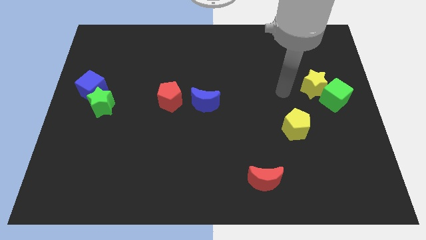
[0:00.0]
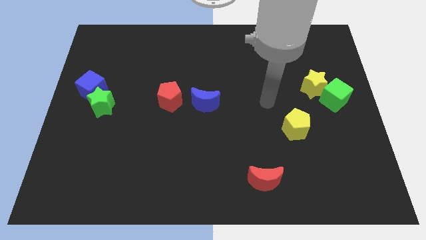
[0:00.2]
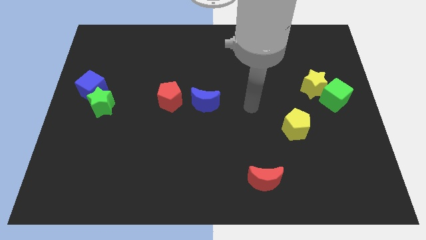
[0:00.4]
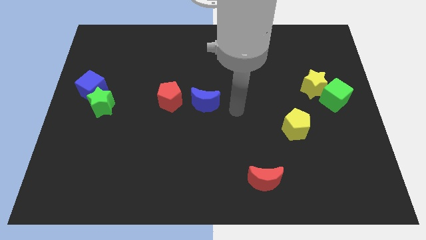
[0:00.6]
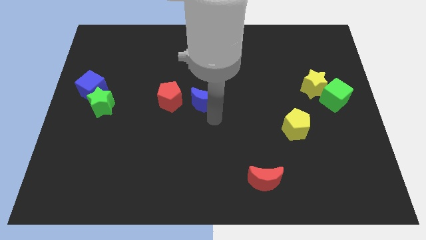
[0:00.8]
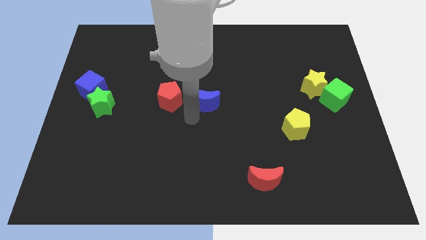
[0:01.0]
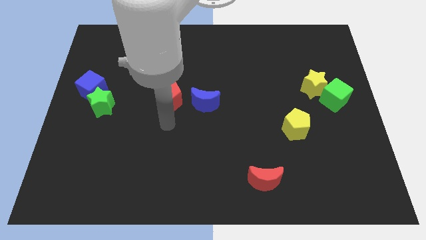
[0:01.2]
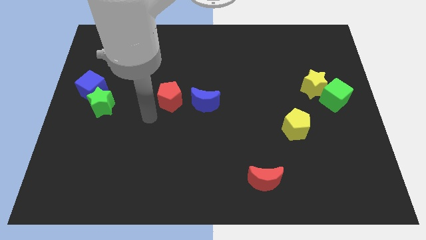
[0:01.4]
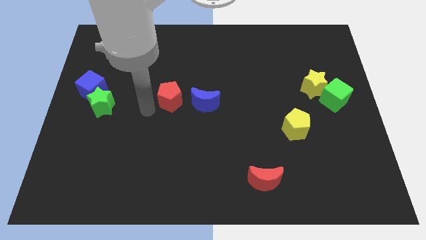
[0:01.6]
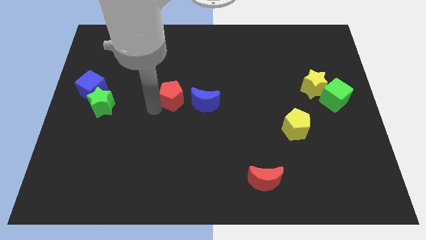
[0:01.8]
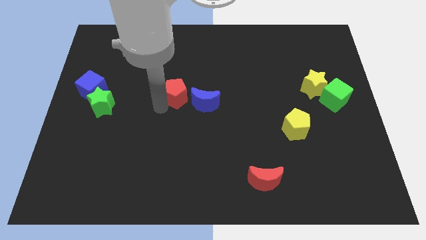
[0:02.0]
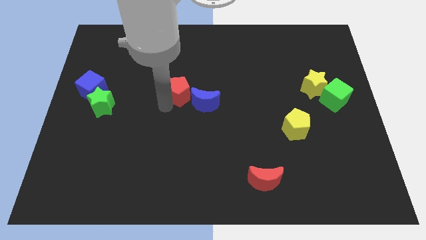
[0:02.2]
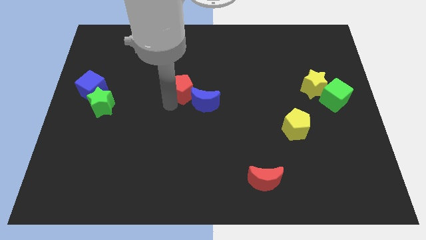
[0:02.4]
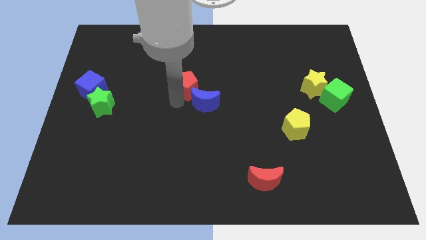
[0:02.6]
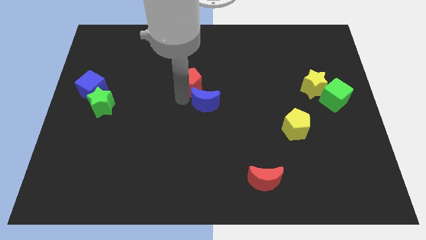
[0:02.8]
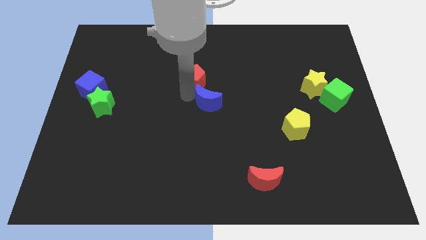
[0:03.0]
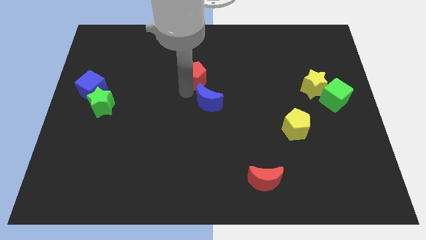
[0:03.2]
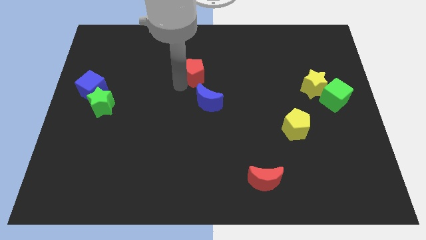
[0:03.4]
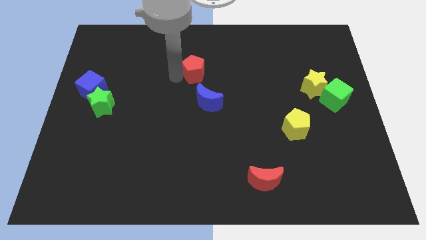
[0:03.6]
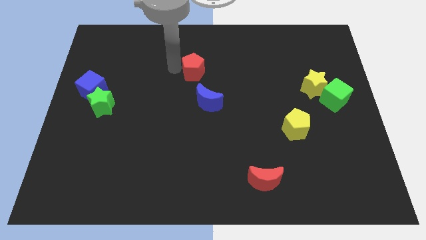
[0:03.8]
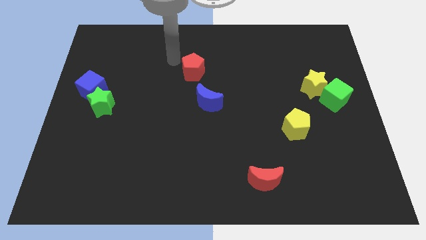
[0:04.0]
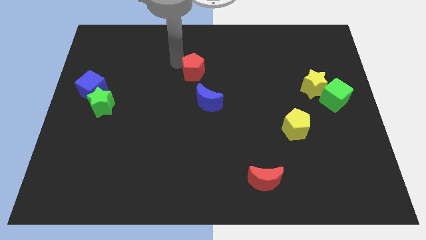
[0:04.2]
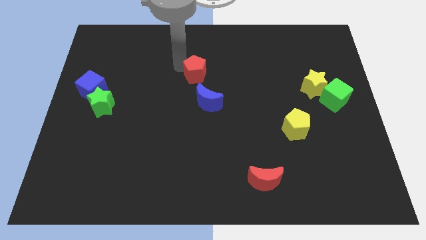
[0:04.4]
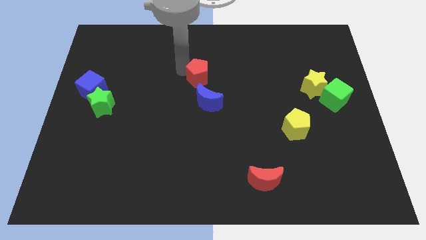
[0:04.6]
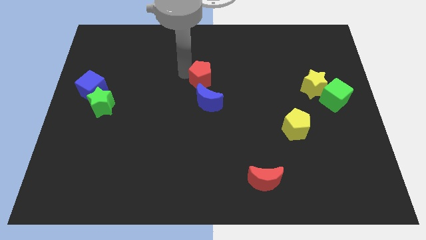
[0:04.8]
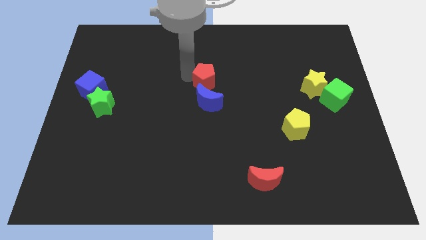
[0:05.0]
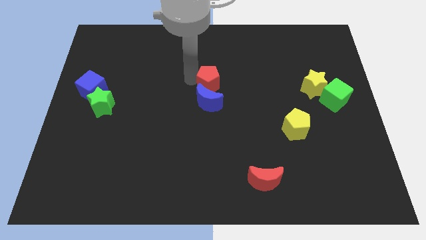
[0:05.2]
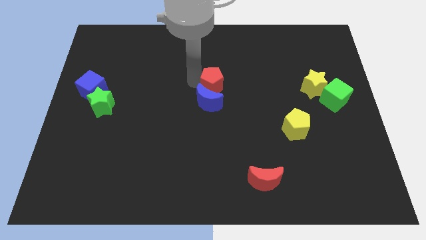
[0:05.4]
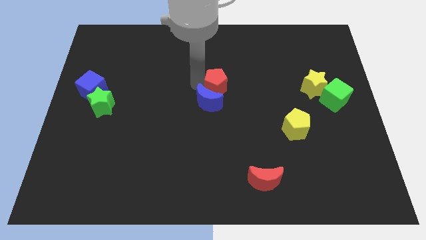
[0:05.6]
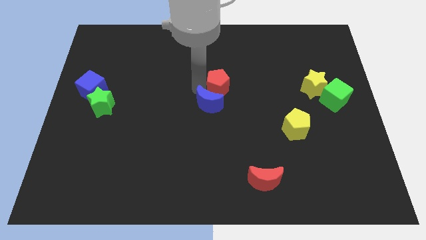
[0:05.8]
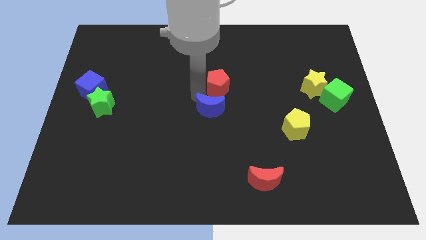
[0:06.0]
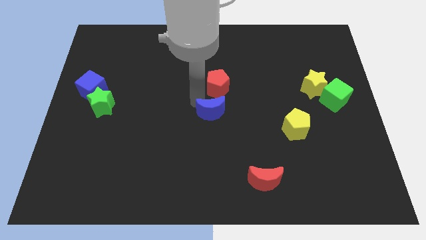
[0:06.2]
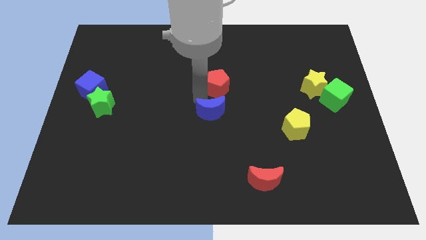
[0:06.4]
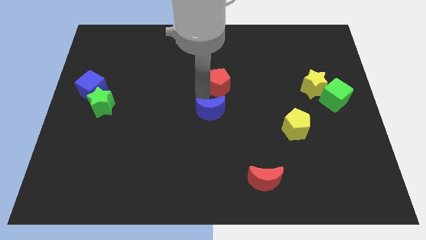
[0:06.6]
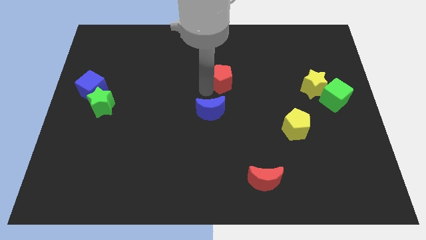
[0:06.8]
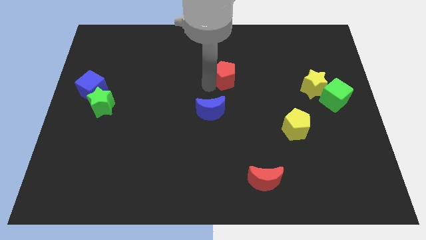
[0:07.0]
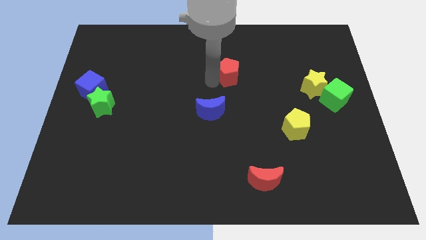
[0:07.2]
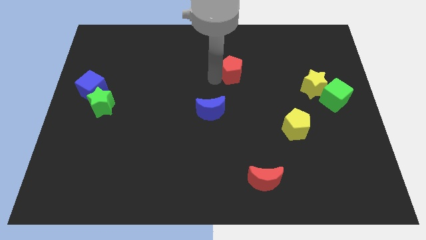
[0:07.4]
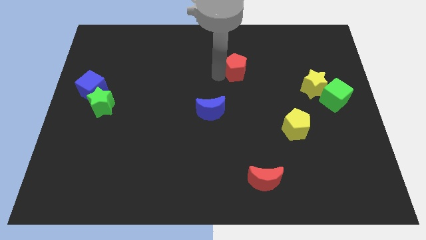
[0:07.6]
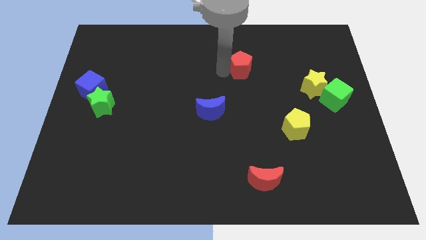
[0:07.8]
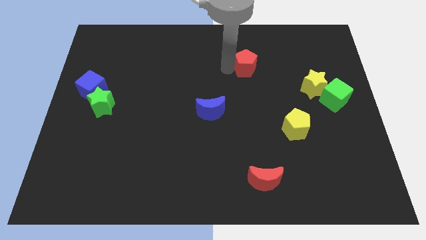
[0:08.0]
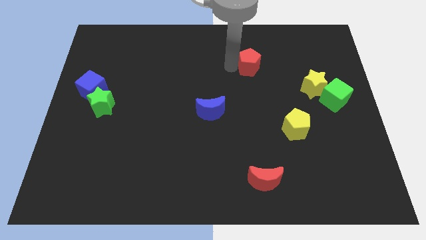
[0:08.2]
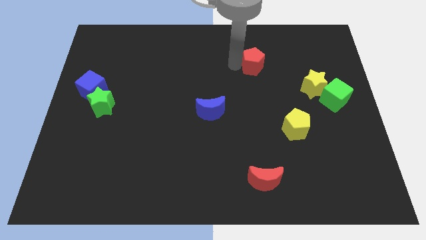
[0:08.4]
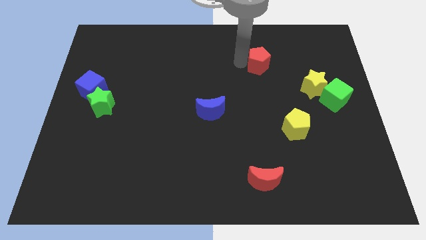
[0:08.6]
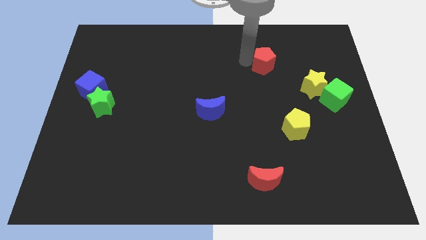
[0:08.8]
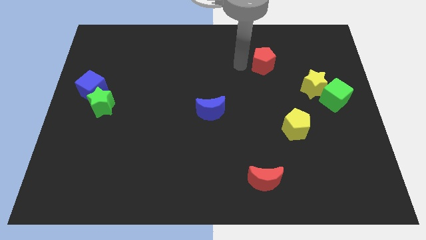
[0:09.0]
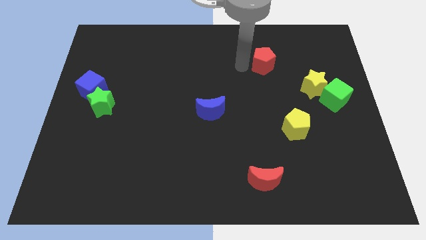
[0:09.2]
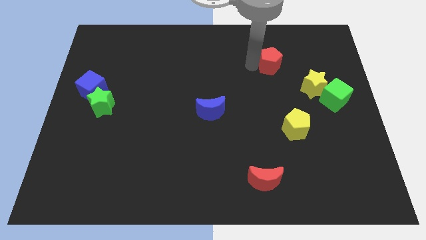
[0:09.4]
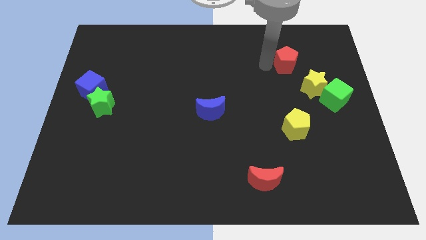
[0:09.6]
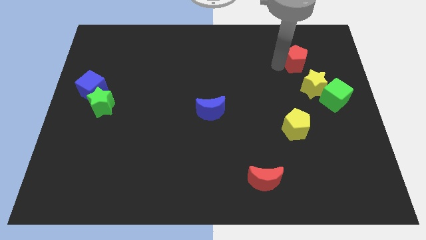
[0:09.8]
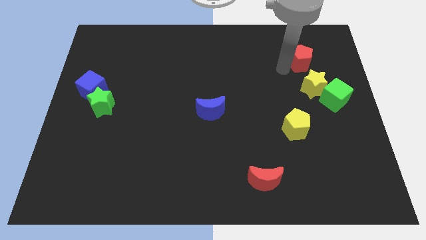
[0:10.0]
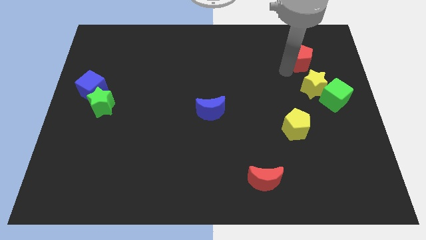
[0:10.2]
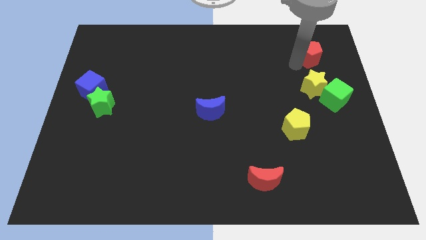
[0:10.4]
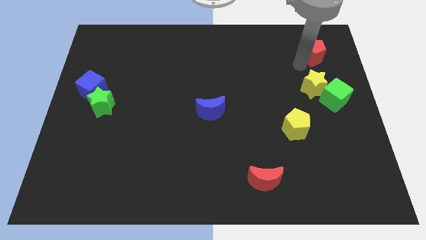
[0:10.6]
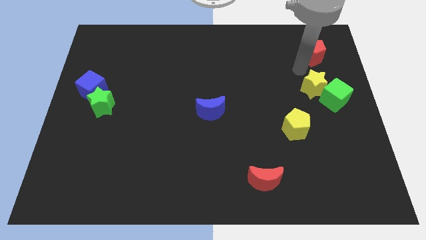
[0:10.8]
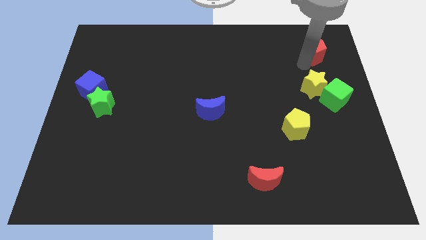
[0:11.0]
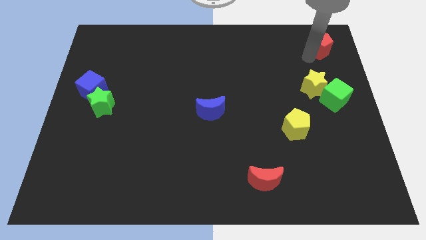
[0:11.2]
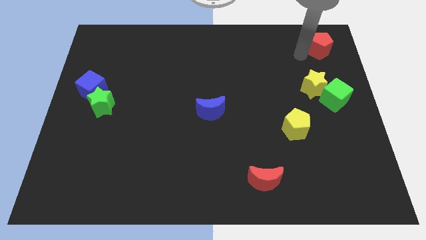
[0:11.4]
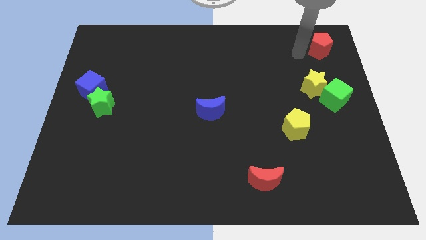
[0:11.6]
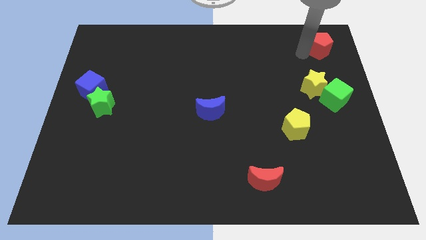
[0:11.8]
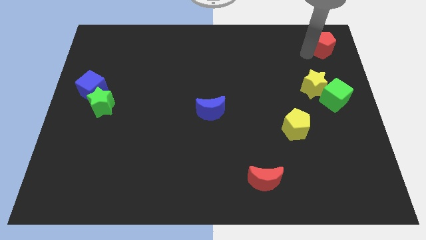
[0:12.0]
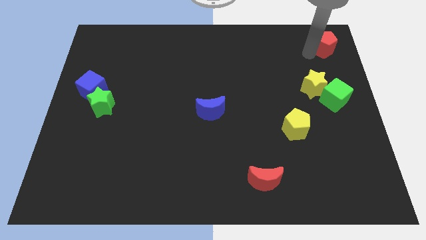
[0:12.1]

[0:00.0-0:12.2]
move the red pentagon to the top right

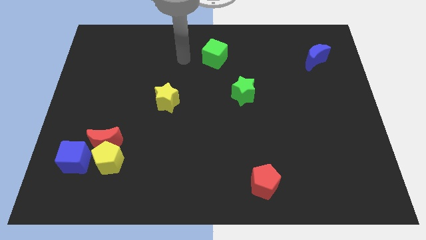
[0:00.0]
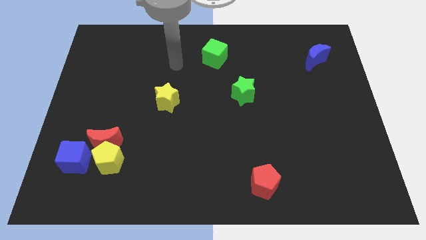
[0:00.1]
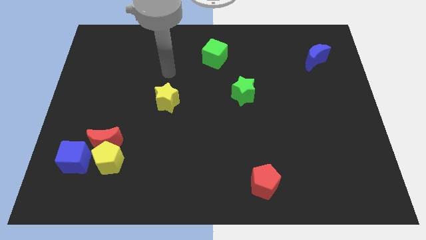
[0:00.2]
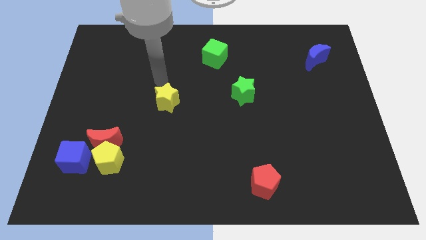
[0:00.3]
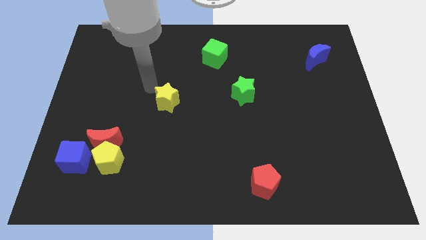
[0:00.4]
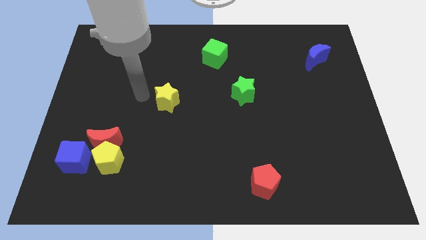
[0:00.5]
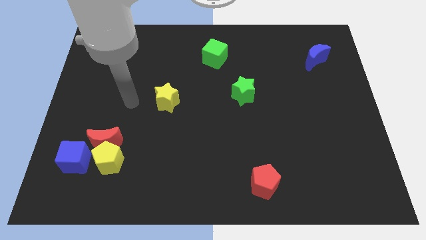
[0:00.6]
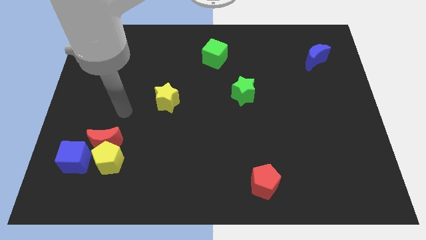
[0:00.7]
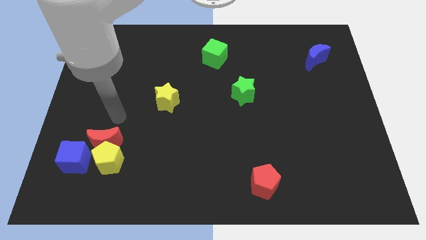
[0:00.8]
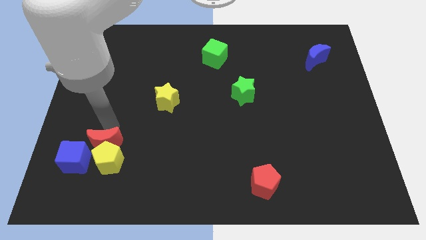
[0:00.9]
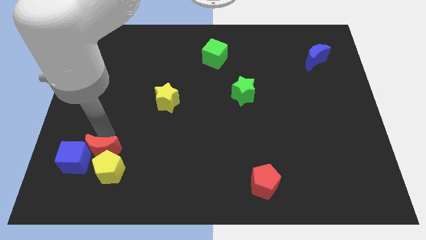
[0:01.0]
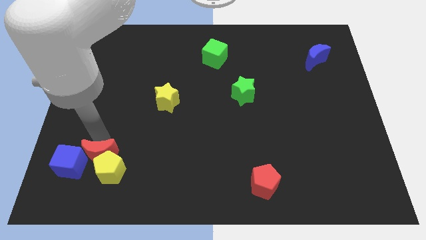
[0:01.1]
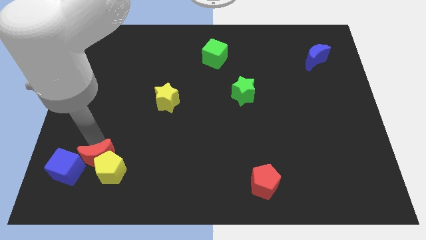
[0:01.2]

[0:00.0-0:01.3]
move the blue cube to the bottom left of the board

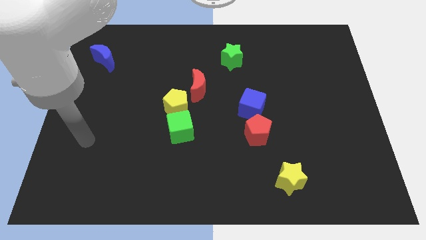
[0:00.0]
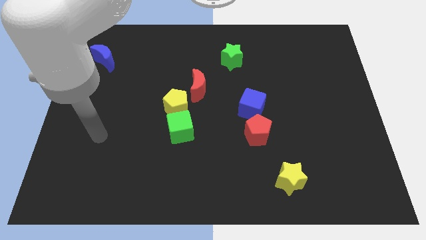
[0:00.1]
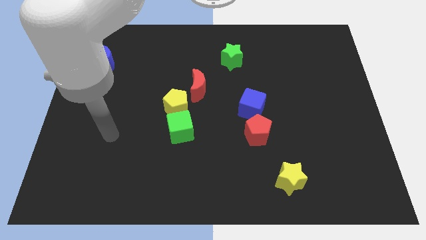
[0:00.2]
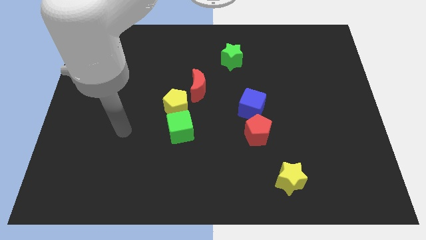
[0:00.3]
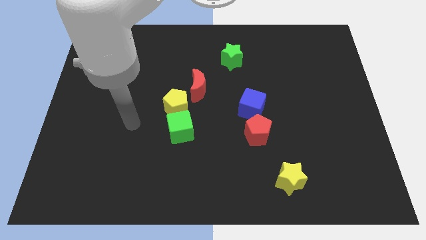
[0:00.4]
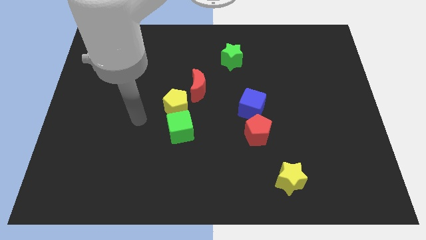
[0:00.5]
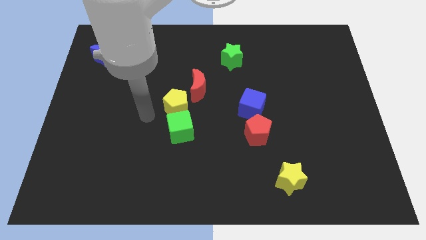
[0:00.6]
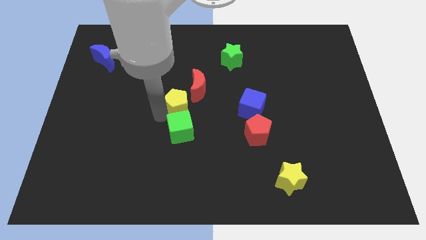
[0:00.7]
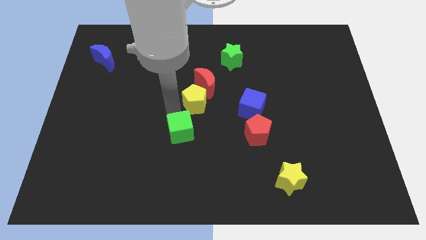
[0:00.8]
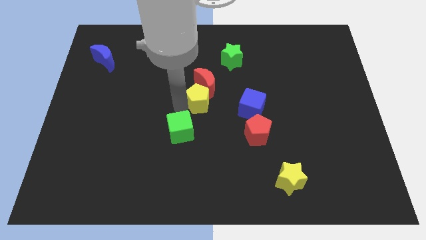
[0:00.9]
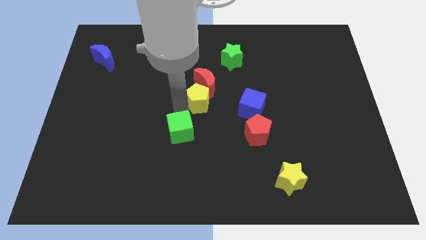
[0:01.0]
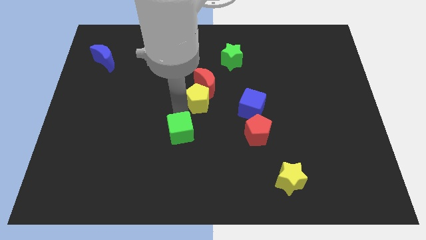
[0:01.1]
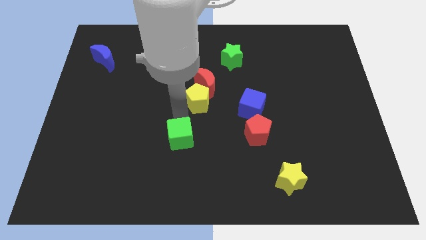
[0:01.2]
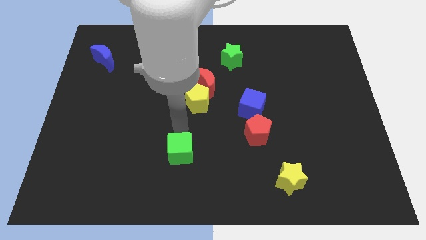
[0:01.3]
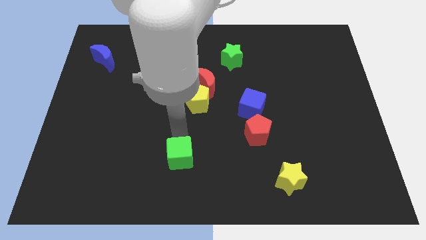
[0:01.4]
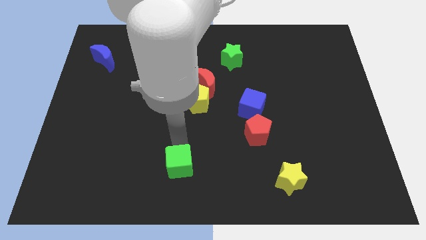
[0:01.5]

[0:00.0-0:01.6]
move the green cube to the bottom
